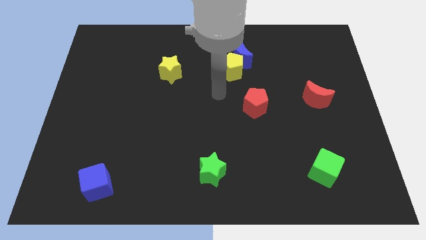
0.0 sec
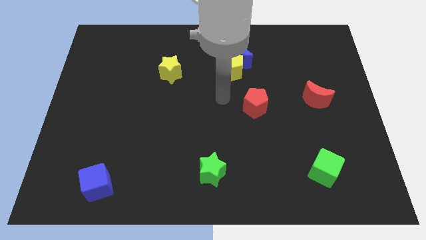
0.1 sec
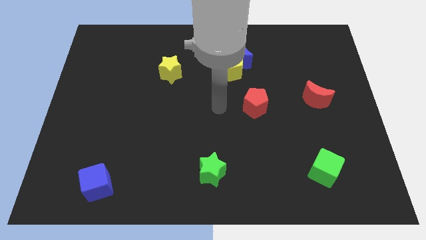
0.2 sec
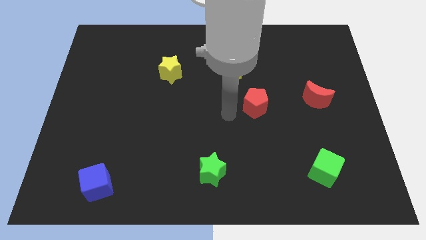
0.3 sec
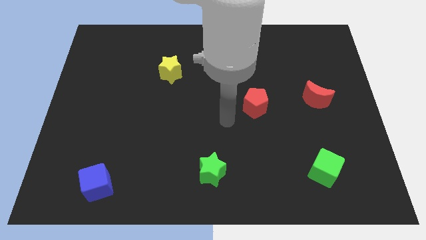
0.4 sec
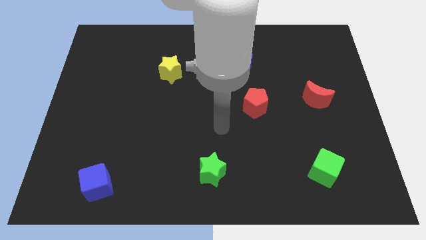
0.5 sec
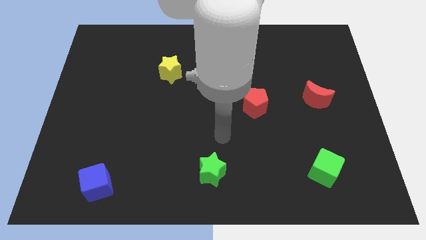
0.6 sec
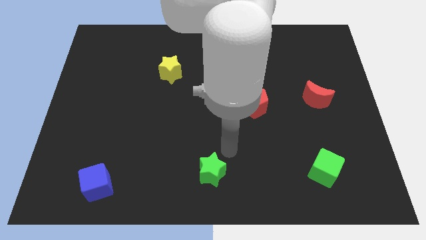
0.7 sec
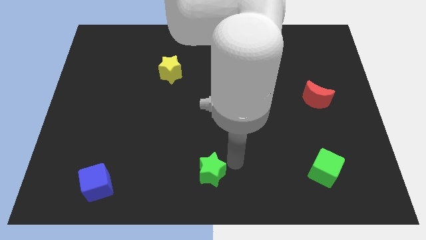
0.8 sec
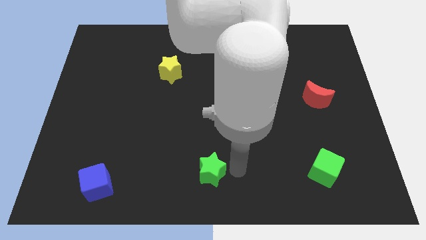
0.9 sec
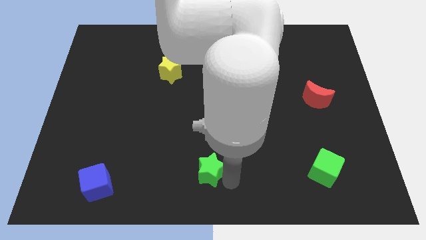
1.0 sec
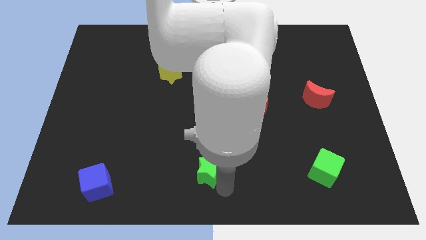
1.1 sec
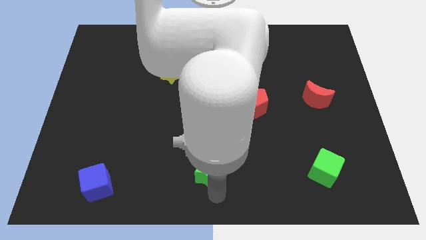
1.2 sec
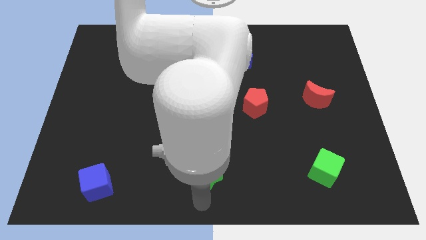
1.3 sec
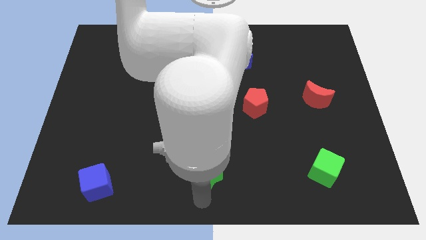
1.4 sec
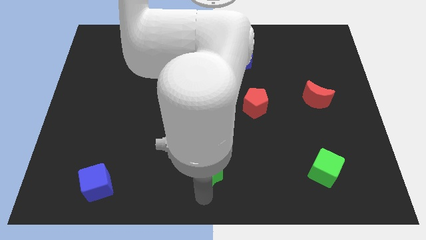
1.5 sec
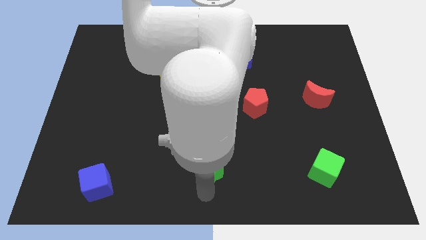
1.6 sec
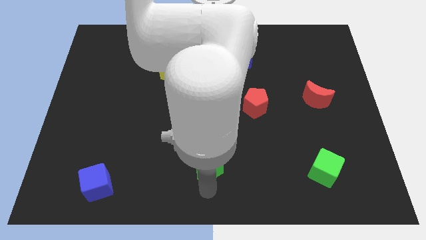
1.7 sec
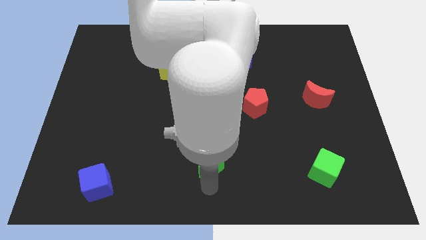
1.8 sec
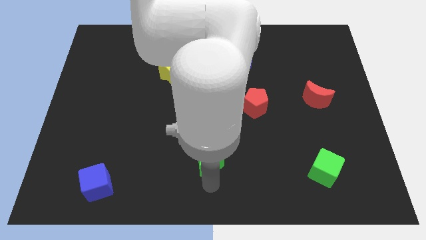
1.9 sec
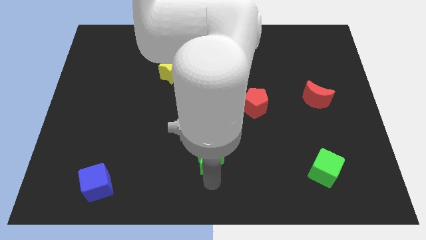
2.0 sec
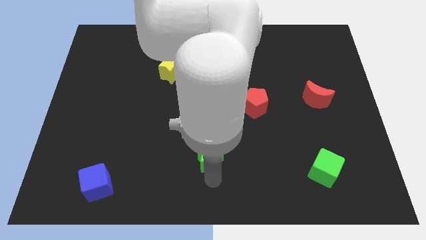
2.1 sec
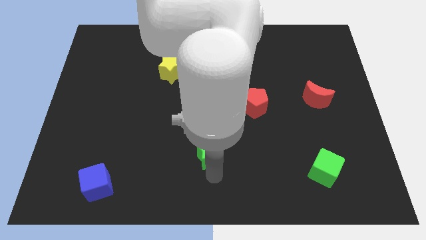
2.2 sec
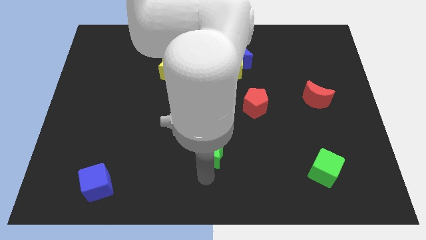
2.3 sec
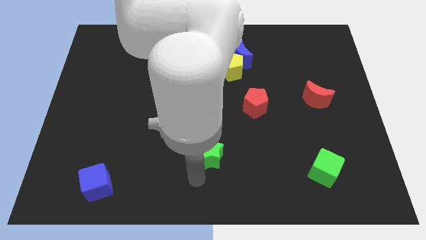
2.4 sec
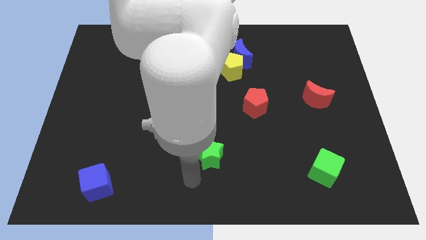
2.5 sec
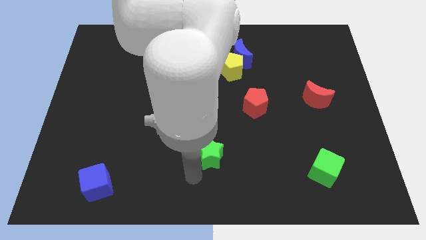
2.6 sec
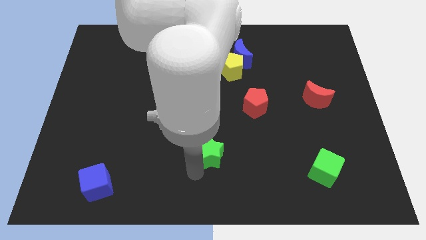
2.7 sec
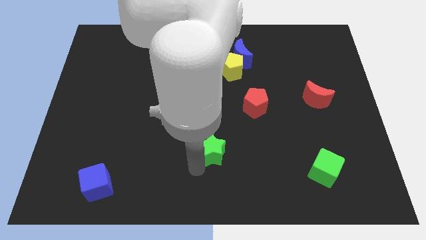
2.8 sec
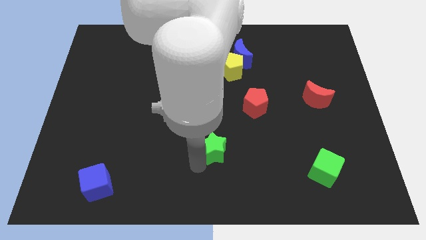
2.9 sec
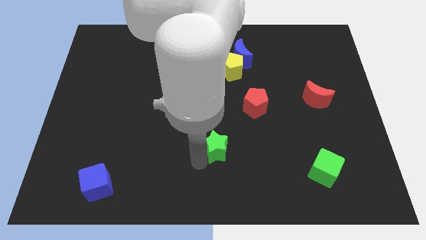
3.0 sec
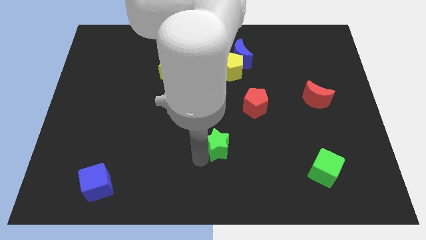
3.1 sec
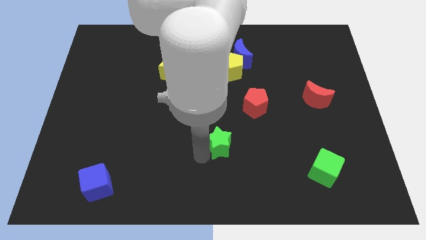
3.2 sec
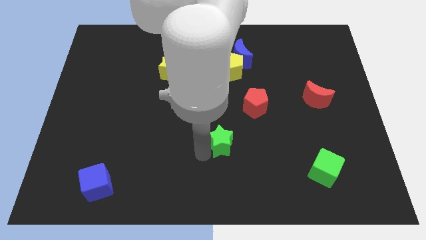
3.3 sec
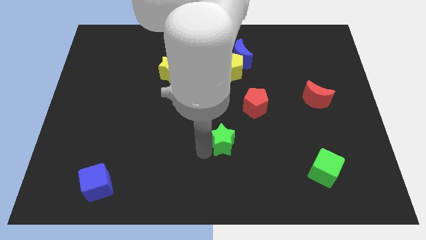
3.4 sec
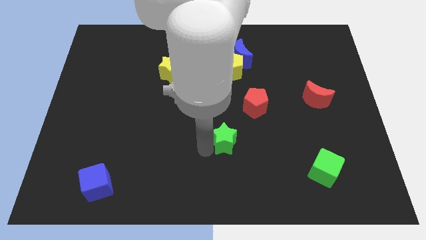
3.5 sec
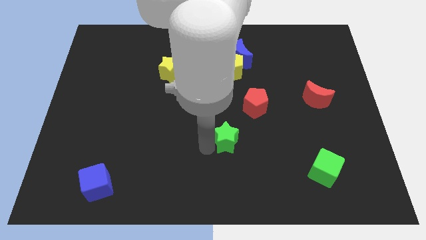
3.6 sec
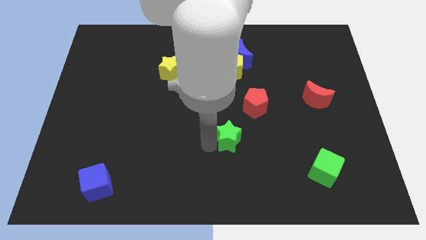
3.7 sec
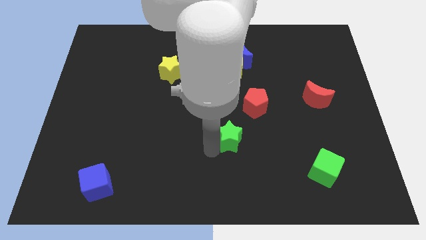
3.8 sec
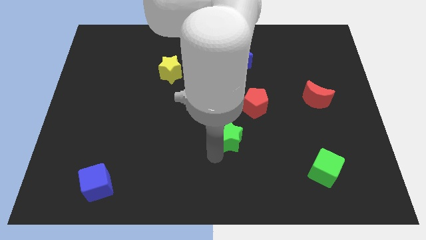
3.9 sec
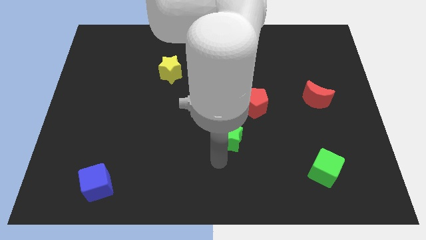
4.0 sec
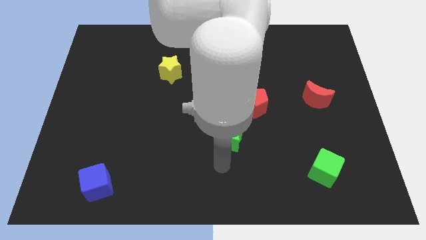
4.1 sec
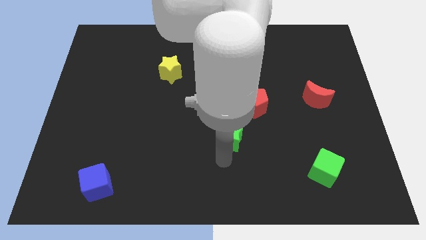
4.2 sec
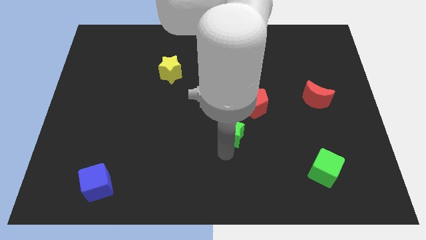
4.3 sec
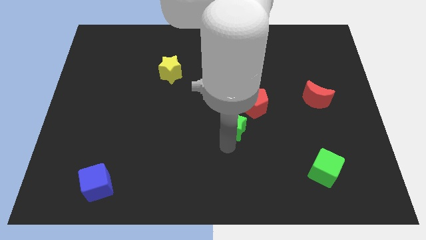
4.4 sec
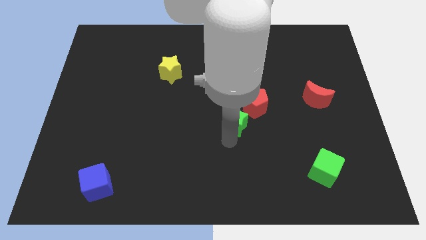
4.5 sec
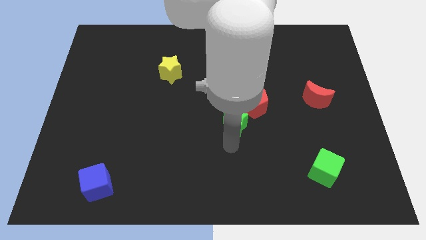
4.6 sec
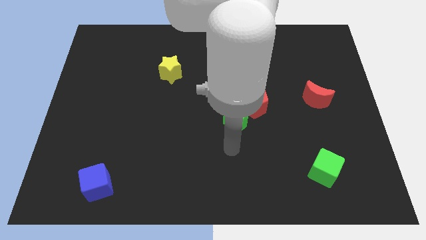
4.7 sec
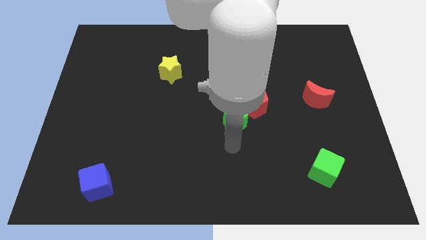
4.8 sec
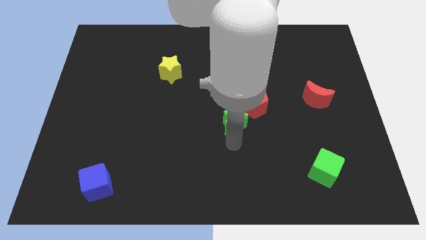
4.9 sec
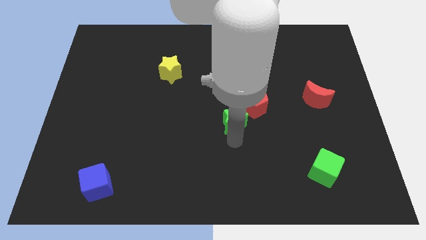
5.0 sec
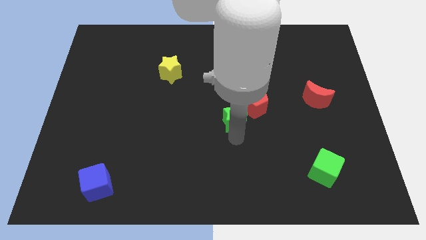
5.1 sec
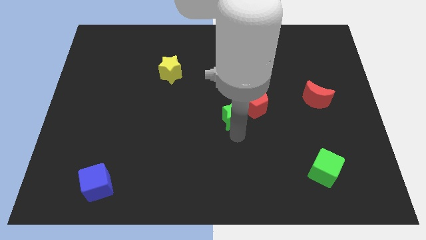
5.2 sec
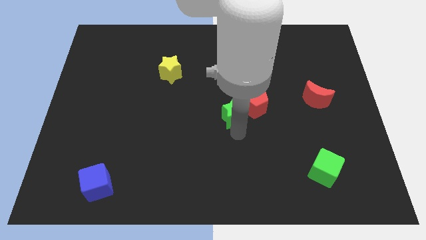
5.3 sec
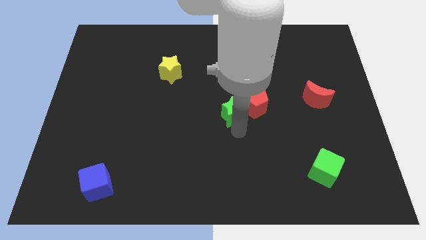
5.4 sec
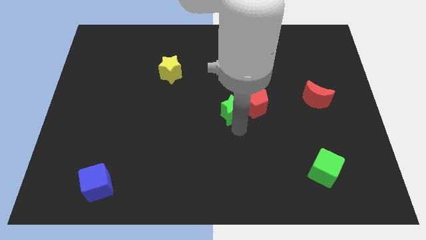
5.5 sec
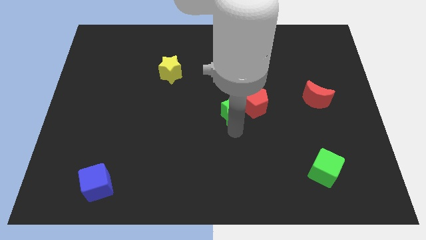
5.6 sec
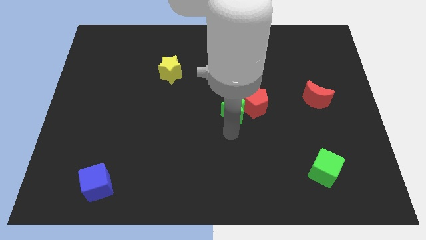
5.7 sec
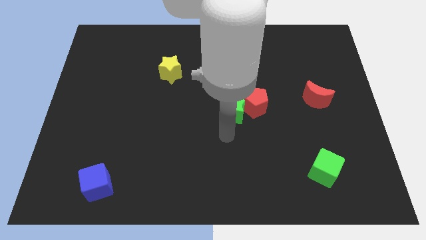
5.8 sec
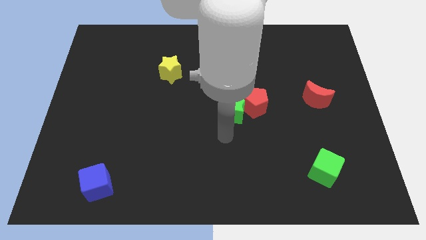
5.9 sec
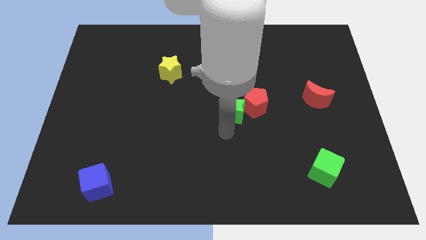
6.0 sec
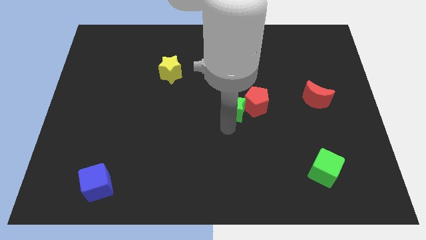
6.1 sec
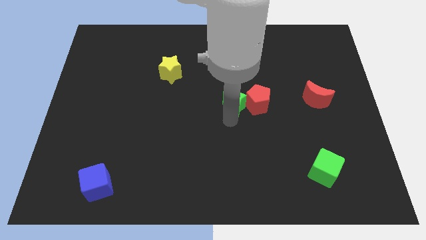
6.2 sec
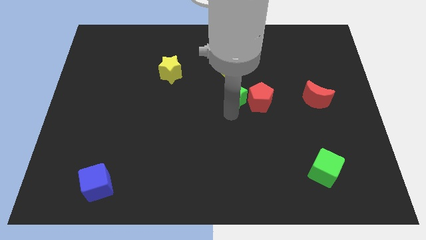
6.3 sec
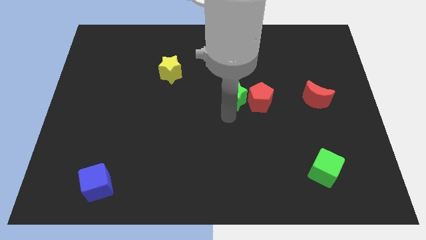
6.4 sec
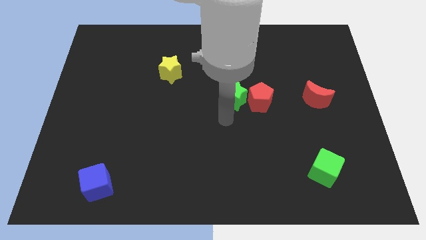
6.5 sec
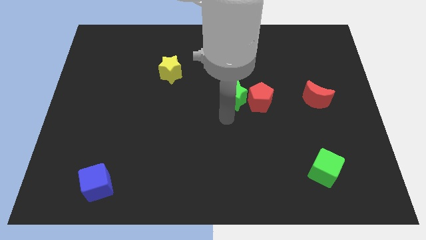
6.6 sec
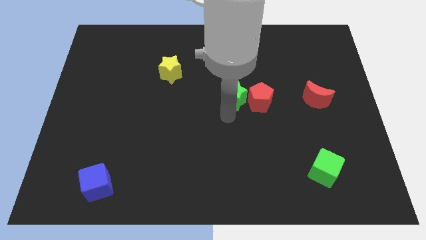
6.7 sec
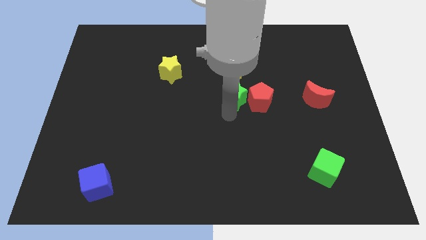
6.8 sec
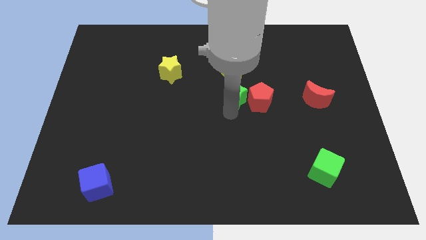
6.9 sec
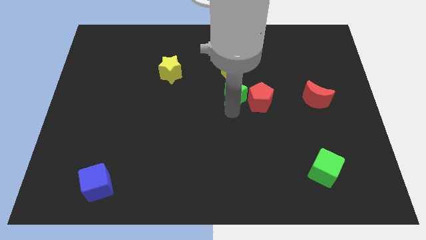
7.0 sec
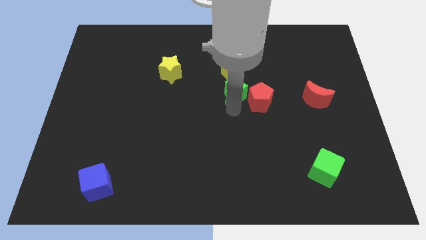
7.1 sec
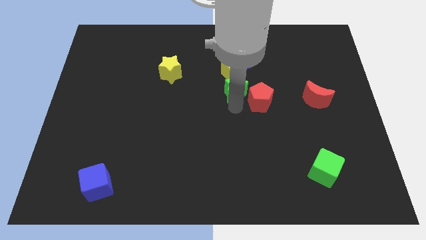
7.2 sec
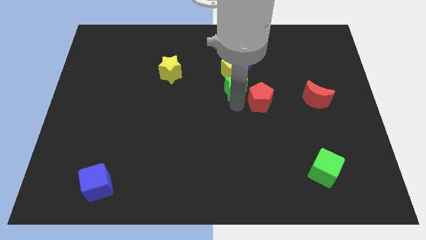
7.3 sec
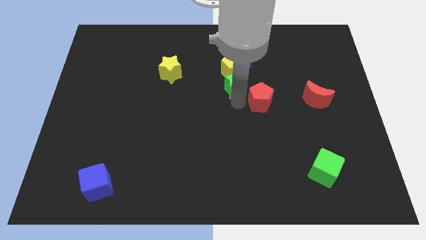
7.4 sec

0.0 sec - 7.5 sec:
push the green star close to the yellow pentagon
